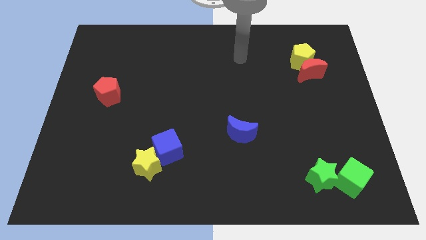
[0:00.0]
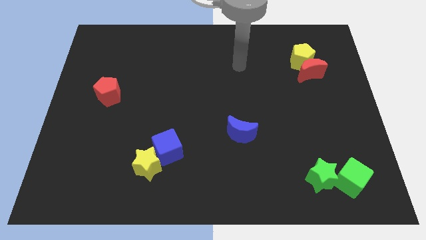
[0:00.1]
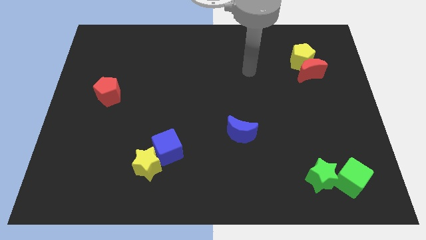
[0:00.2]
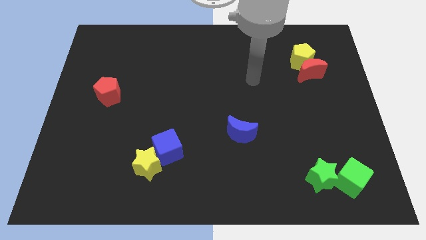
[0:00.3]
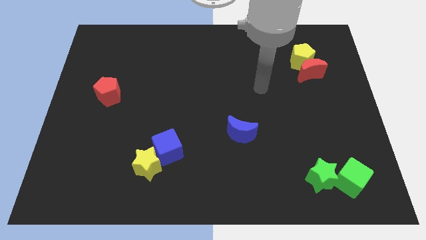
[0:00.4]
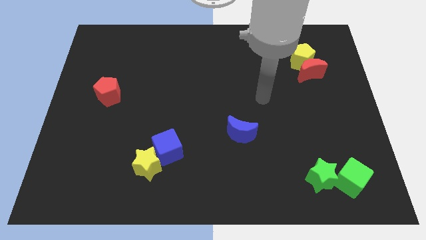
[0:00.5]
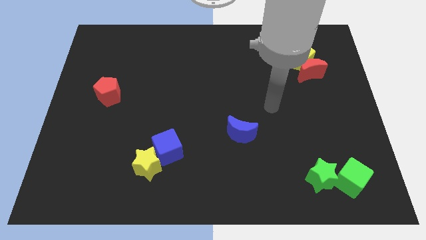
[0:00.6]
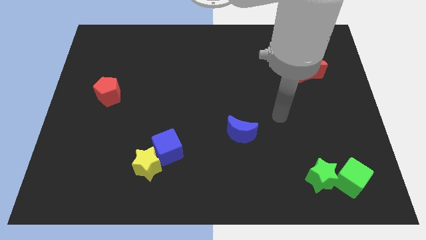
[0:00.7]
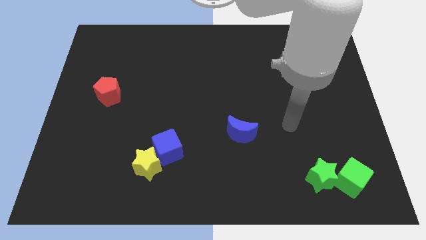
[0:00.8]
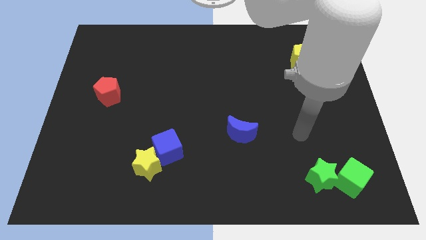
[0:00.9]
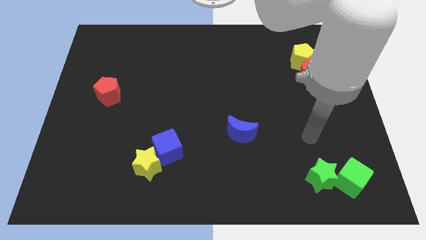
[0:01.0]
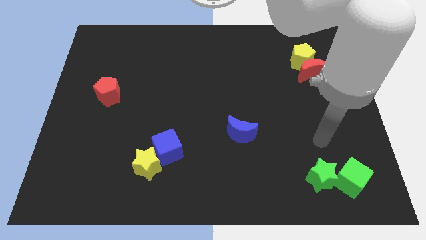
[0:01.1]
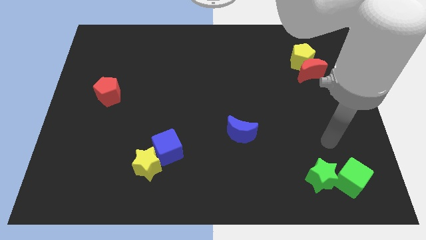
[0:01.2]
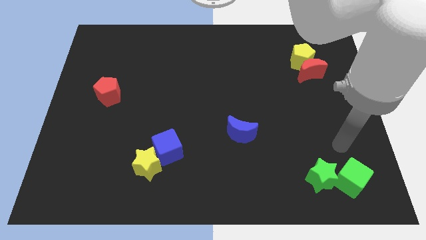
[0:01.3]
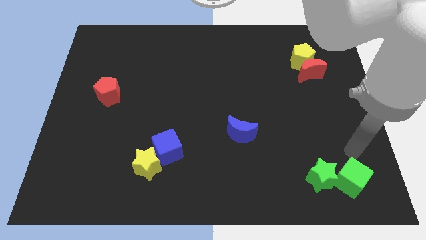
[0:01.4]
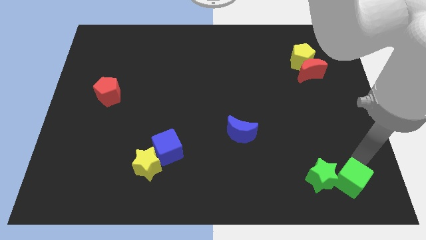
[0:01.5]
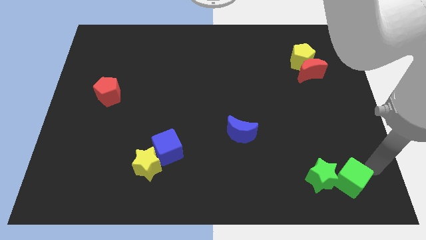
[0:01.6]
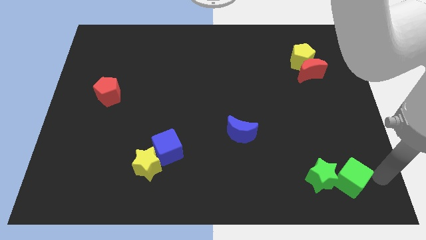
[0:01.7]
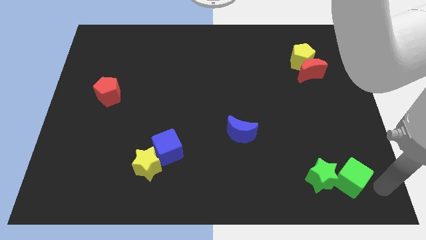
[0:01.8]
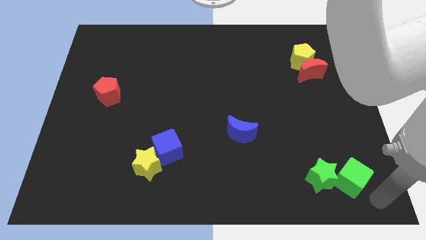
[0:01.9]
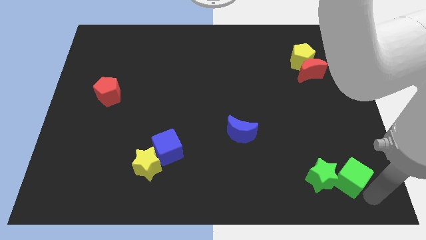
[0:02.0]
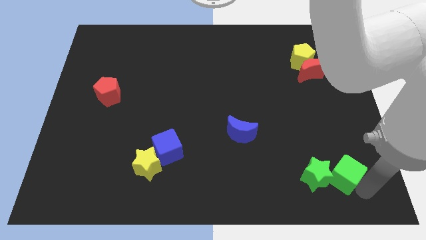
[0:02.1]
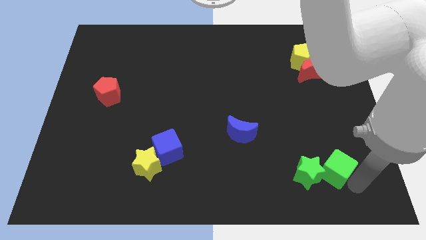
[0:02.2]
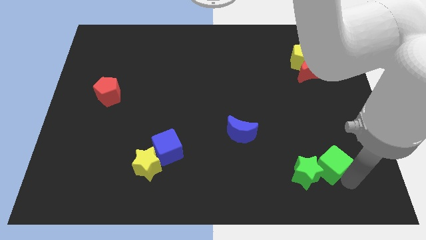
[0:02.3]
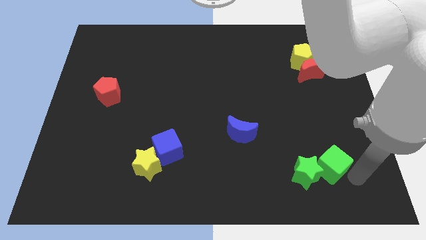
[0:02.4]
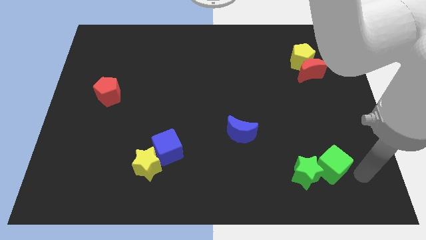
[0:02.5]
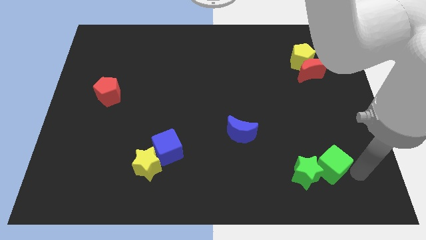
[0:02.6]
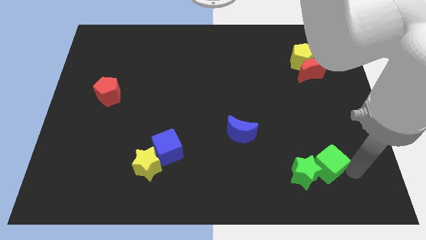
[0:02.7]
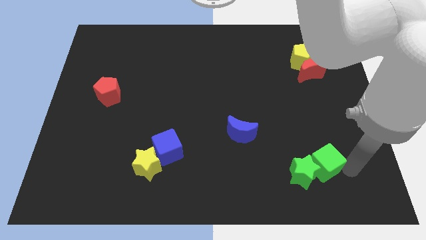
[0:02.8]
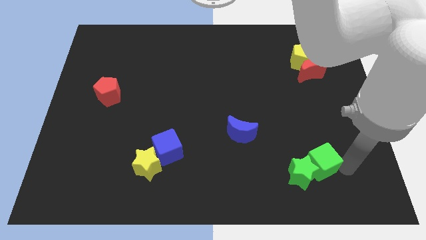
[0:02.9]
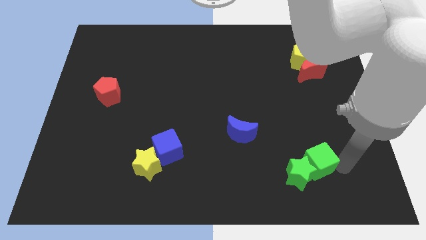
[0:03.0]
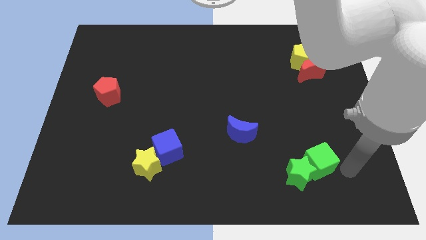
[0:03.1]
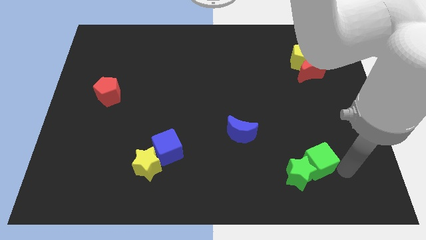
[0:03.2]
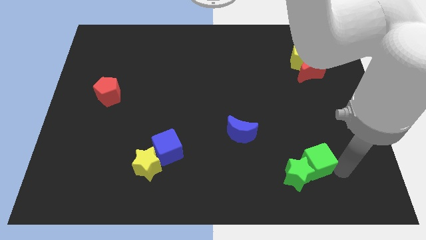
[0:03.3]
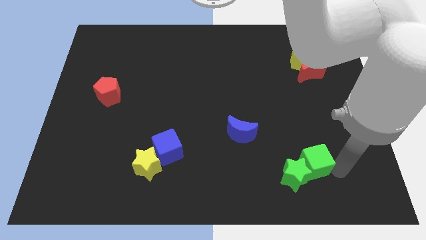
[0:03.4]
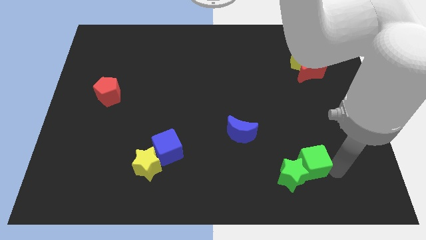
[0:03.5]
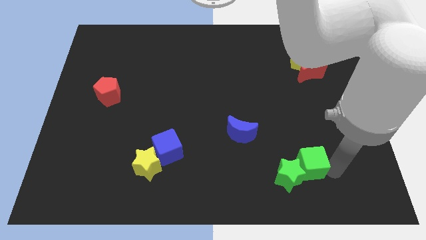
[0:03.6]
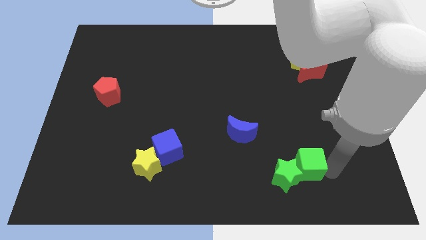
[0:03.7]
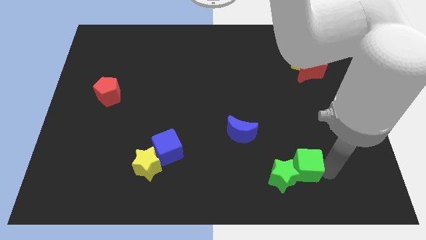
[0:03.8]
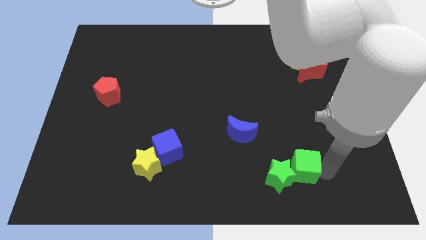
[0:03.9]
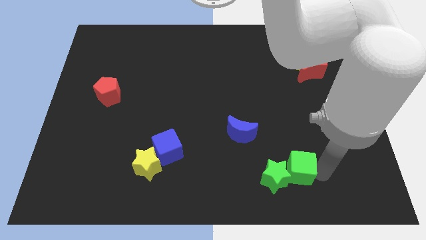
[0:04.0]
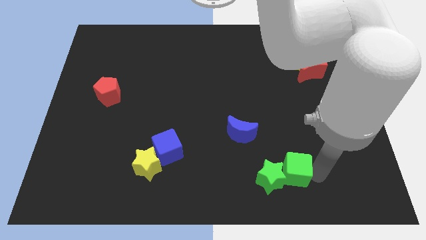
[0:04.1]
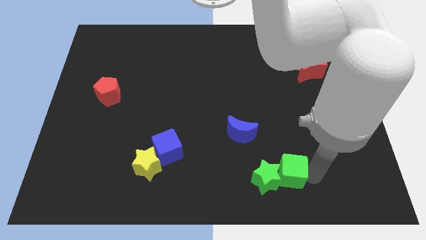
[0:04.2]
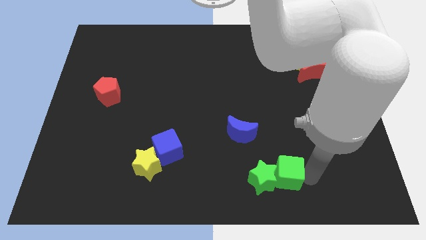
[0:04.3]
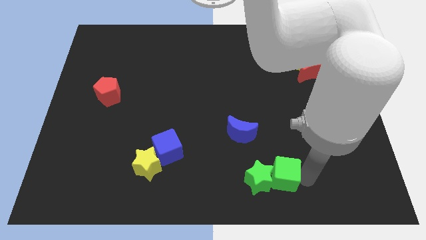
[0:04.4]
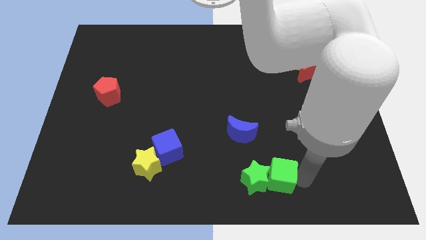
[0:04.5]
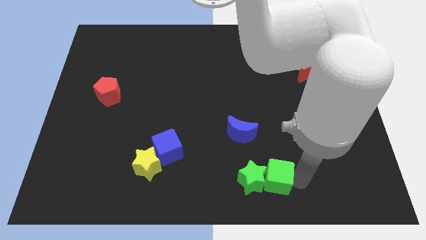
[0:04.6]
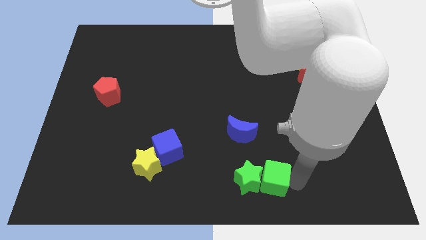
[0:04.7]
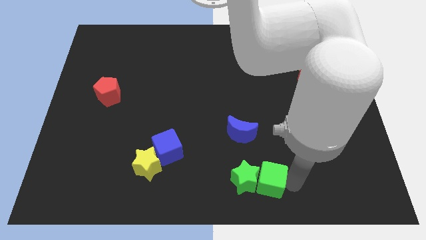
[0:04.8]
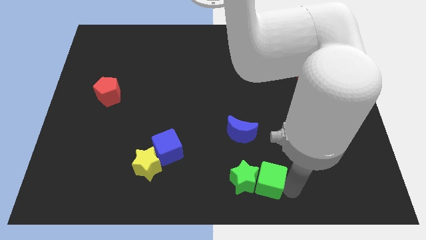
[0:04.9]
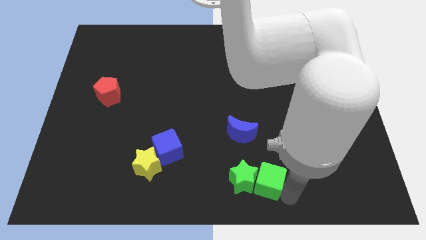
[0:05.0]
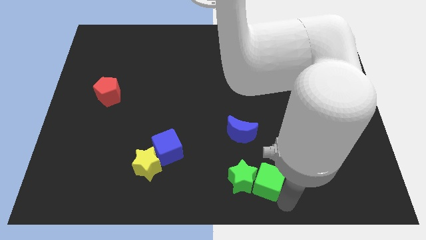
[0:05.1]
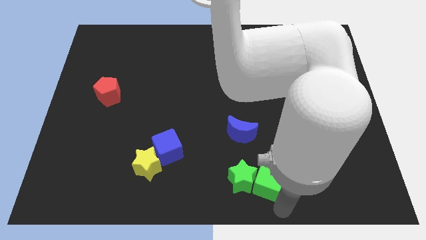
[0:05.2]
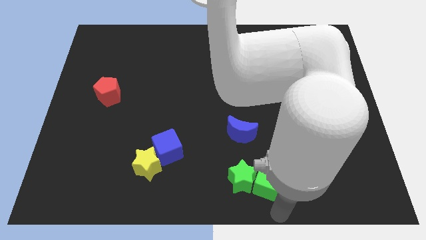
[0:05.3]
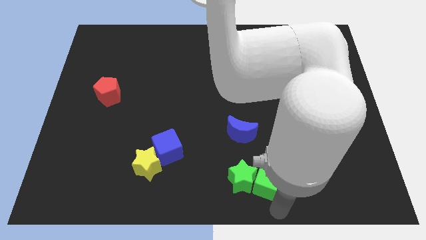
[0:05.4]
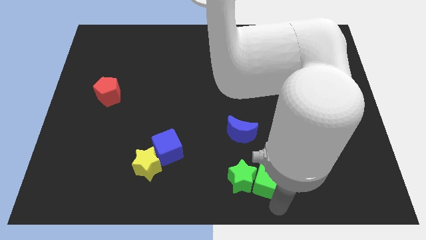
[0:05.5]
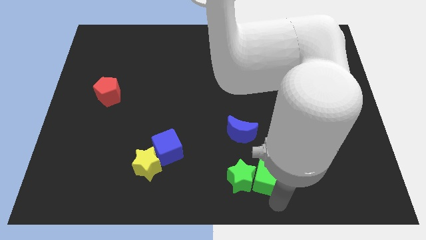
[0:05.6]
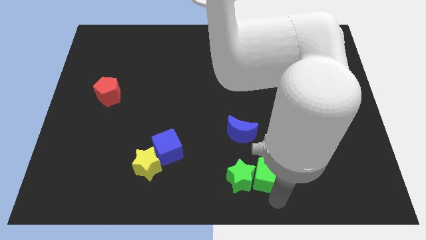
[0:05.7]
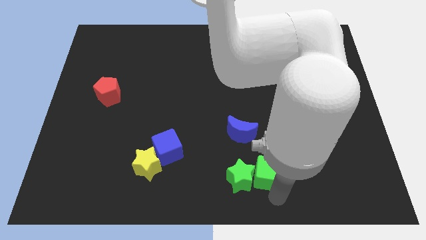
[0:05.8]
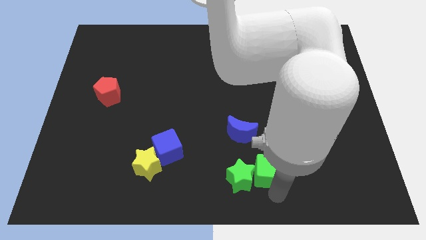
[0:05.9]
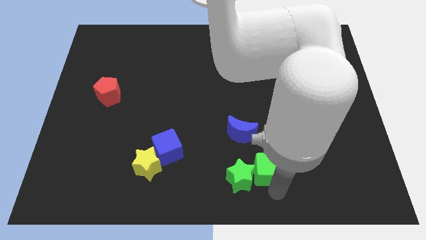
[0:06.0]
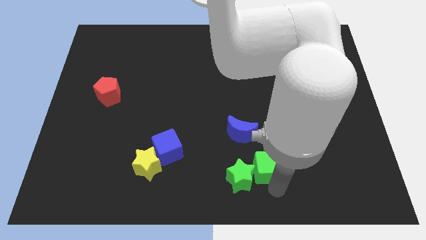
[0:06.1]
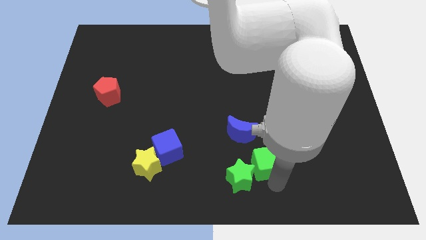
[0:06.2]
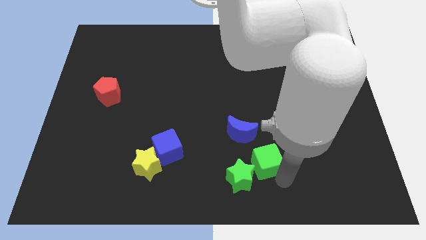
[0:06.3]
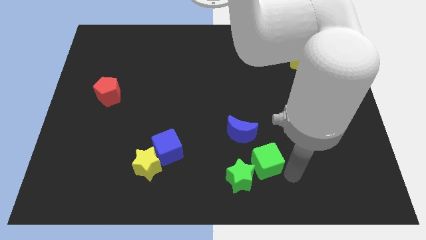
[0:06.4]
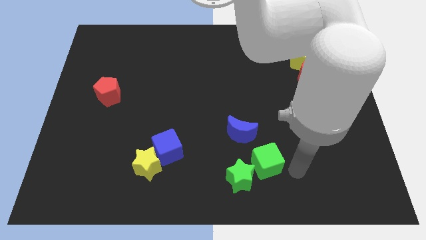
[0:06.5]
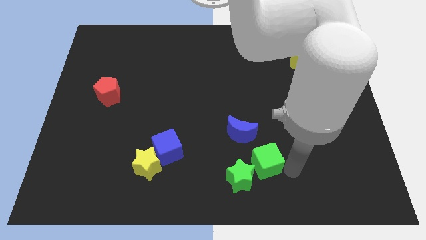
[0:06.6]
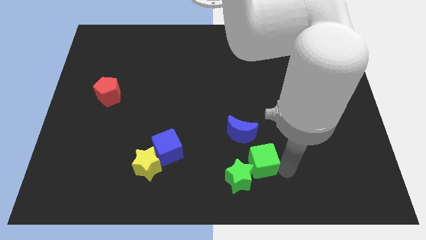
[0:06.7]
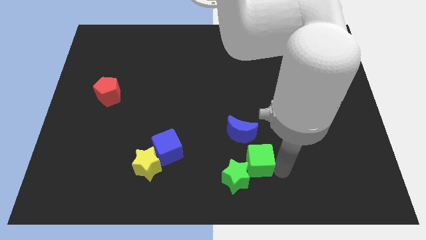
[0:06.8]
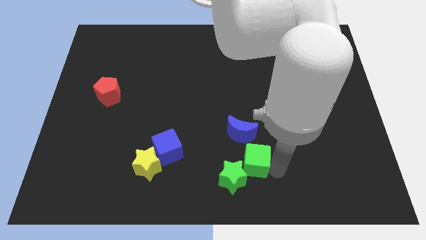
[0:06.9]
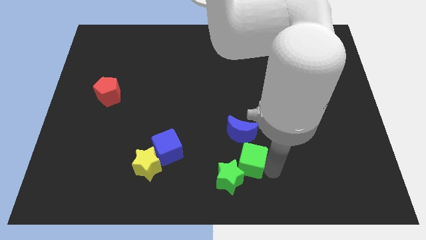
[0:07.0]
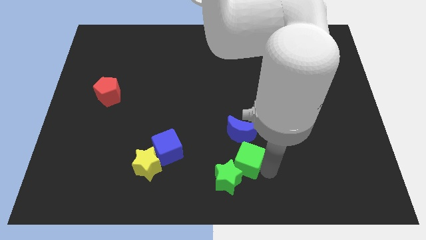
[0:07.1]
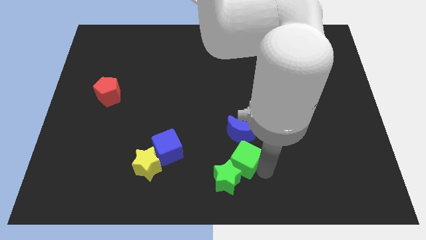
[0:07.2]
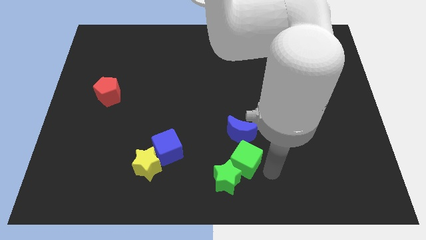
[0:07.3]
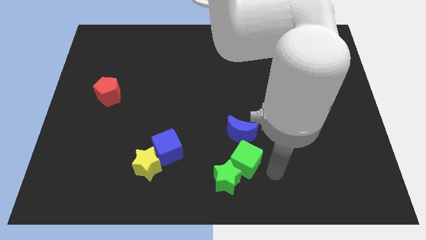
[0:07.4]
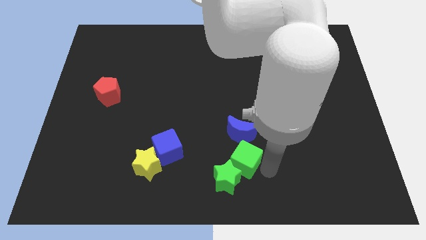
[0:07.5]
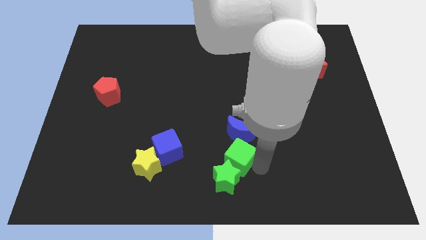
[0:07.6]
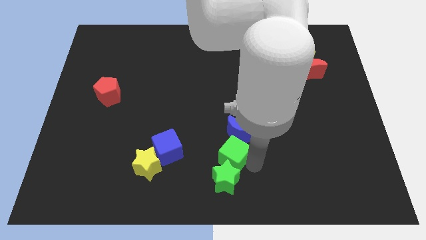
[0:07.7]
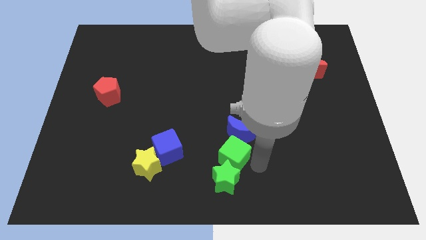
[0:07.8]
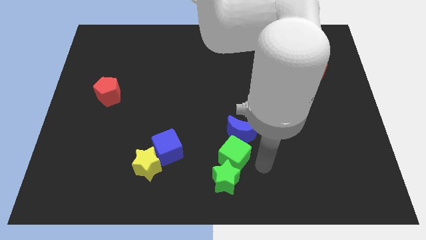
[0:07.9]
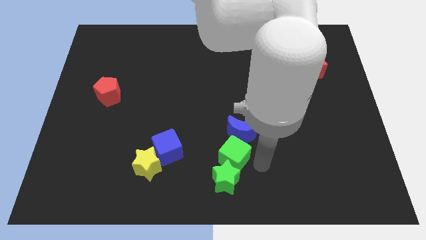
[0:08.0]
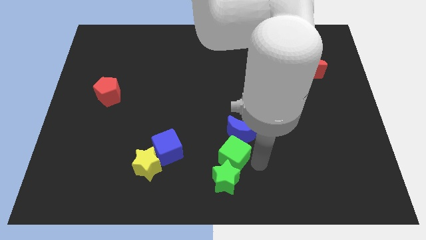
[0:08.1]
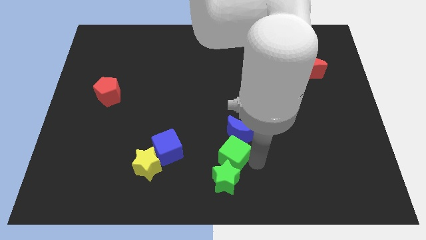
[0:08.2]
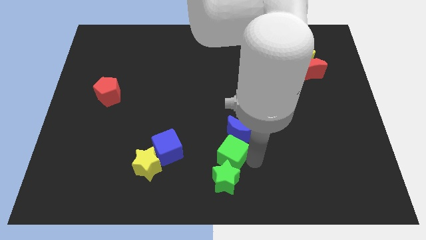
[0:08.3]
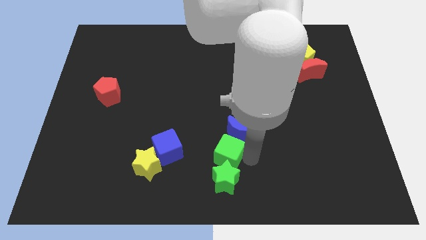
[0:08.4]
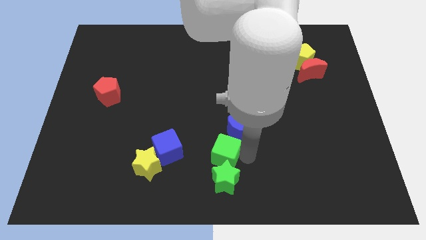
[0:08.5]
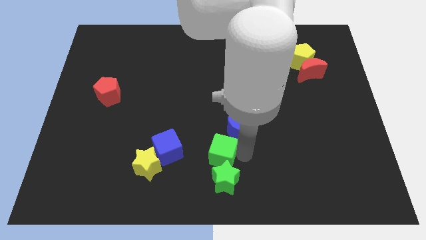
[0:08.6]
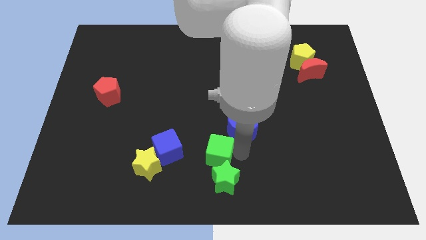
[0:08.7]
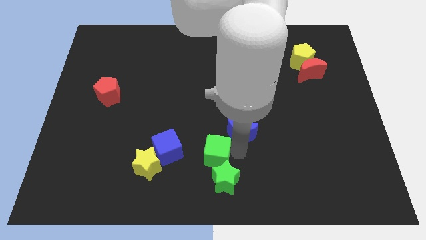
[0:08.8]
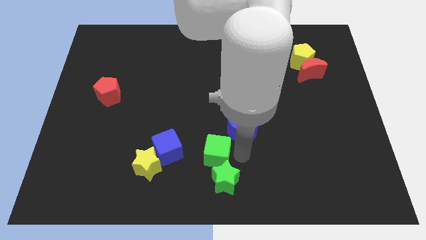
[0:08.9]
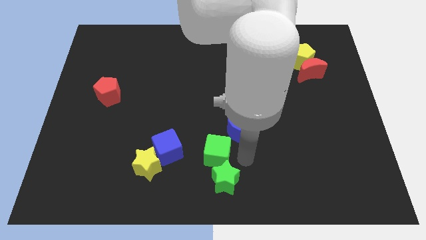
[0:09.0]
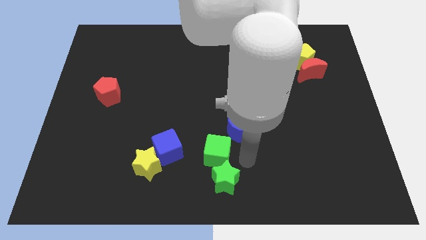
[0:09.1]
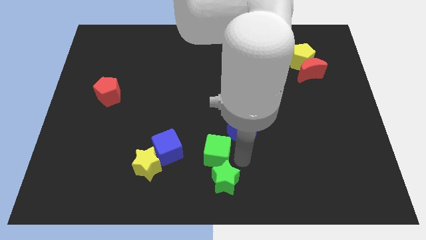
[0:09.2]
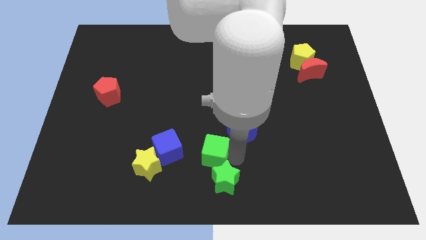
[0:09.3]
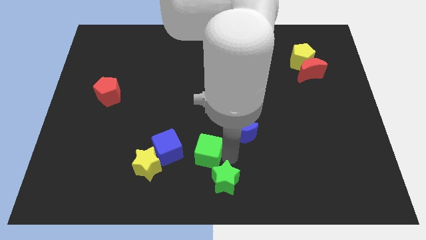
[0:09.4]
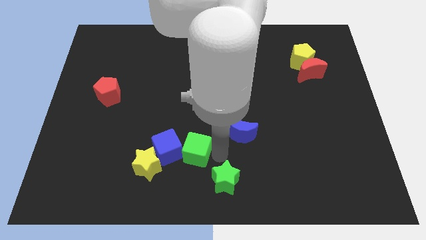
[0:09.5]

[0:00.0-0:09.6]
put the green cube to the blue cube
